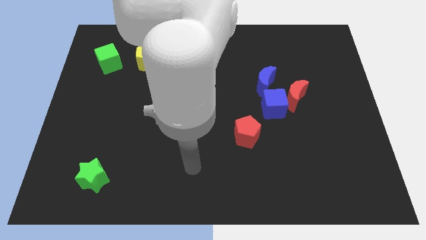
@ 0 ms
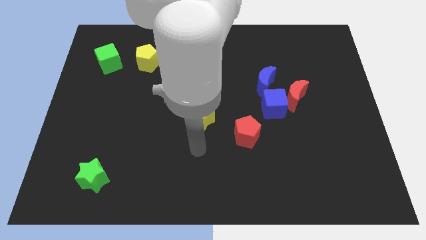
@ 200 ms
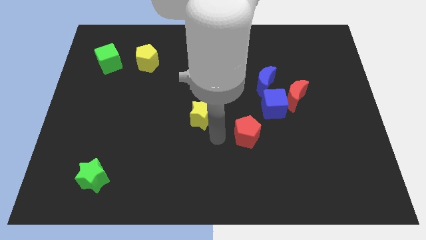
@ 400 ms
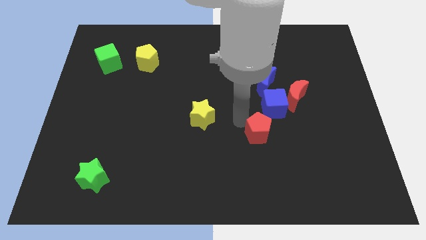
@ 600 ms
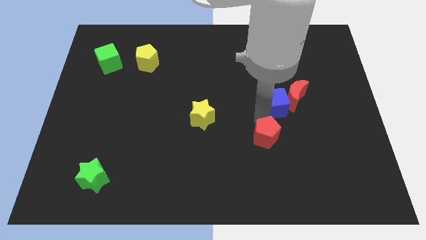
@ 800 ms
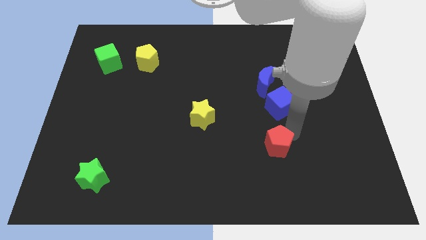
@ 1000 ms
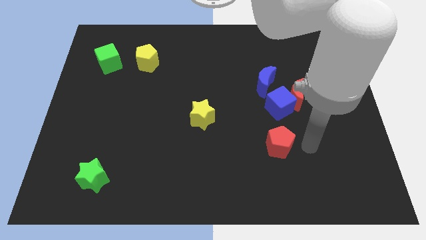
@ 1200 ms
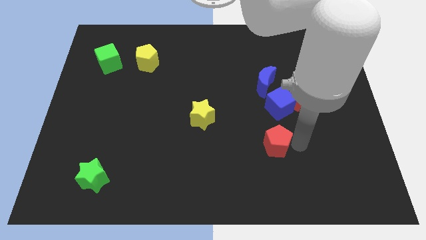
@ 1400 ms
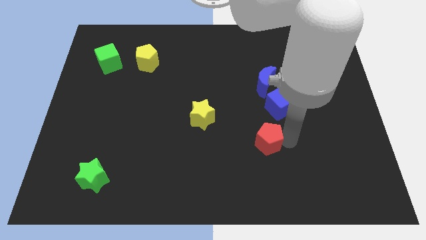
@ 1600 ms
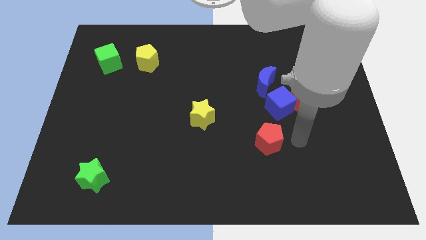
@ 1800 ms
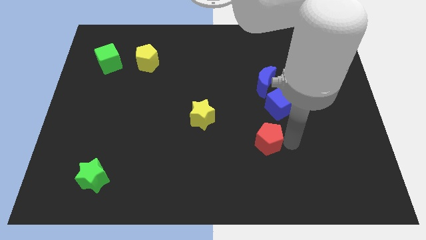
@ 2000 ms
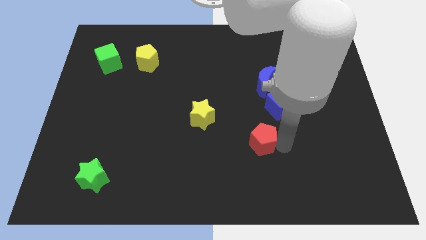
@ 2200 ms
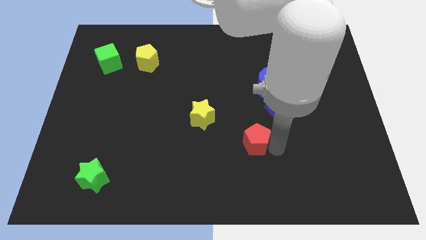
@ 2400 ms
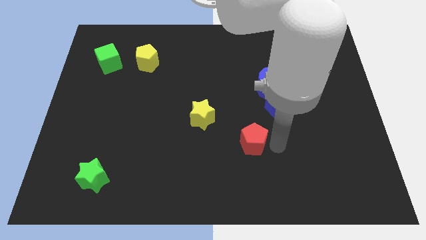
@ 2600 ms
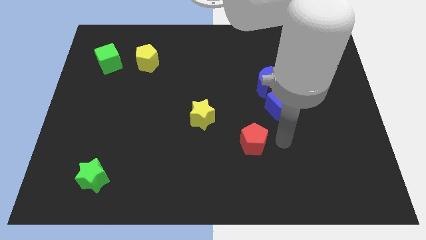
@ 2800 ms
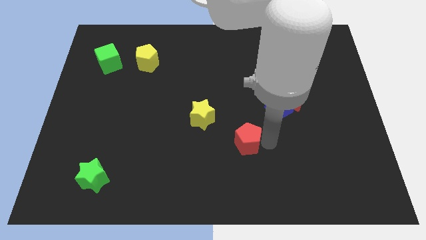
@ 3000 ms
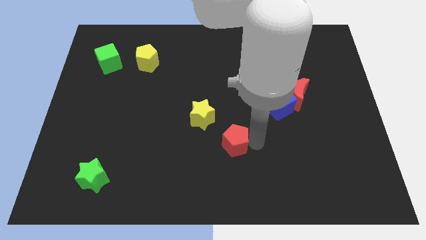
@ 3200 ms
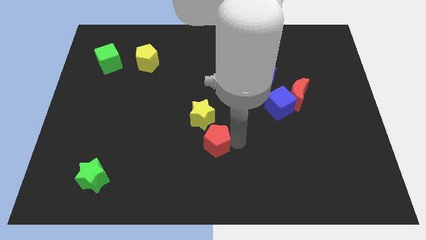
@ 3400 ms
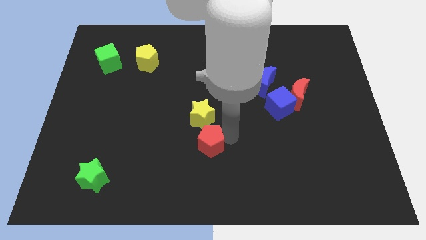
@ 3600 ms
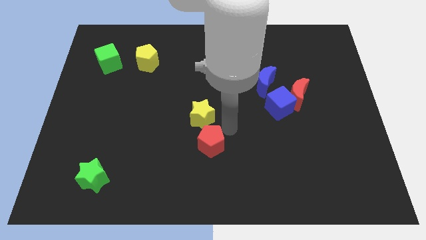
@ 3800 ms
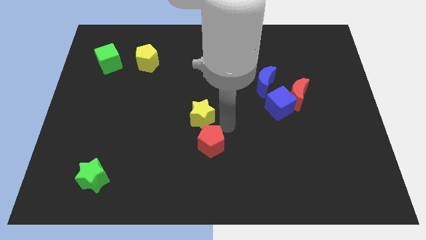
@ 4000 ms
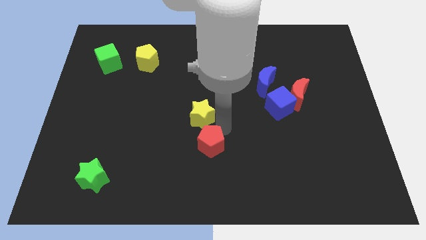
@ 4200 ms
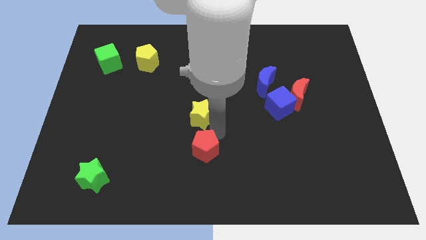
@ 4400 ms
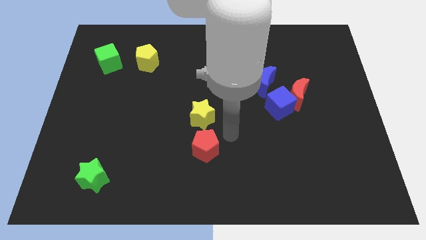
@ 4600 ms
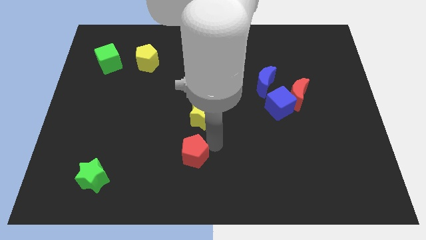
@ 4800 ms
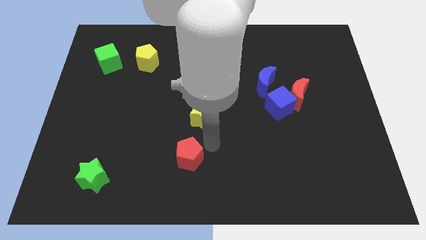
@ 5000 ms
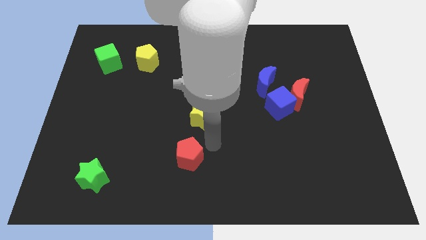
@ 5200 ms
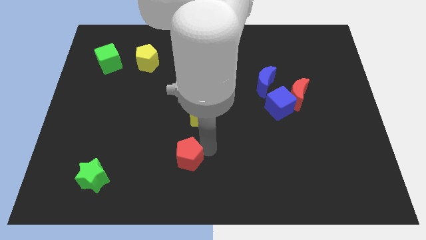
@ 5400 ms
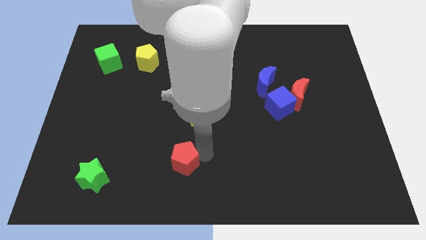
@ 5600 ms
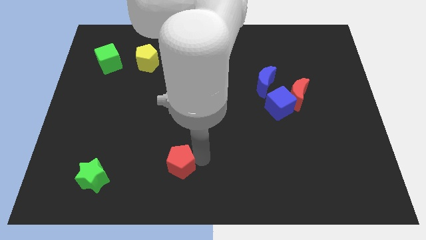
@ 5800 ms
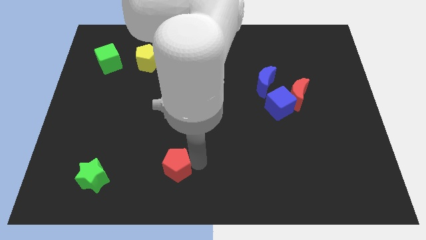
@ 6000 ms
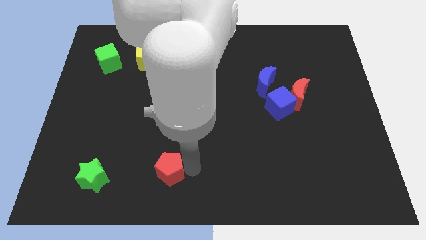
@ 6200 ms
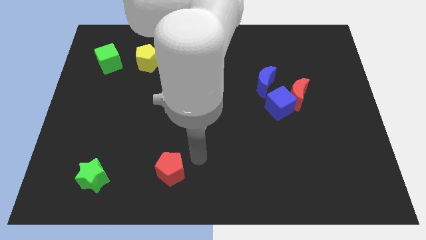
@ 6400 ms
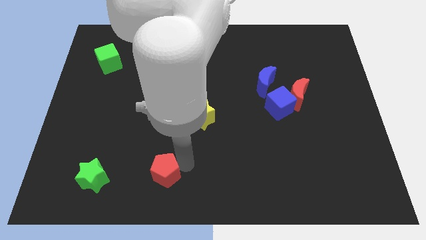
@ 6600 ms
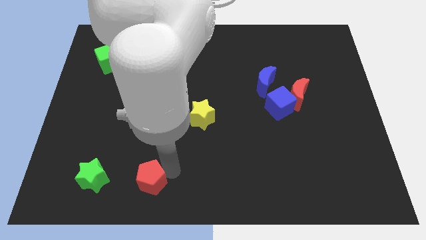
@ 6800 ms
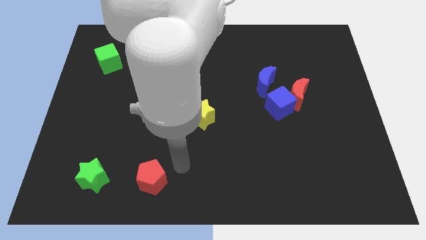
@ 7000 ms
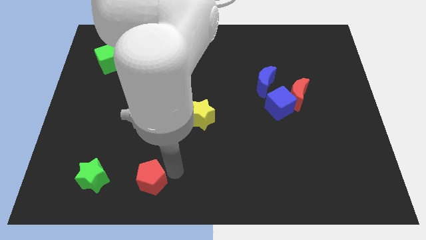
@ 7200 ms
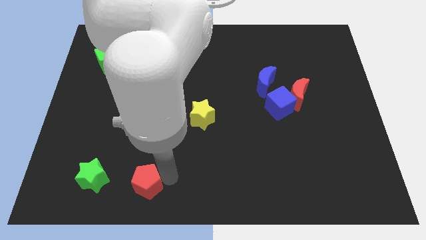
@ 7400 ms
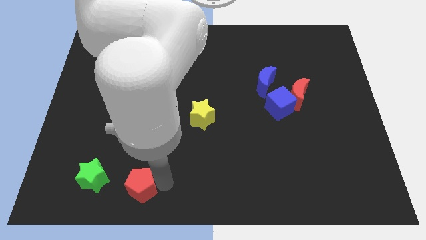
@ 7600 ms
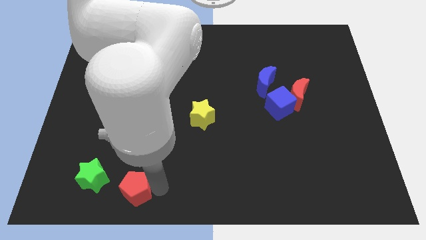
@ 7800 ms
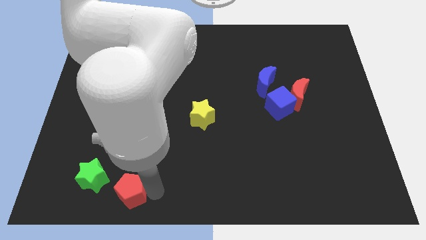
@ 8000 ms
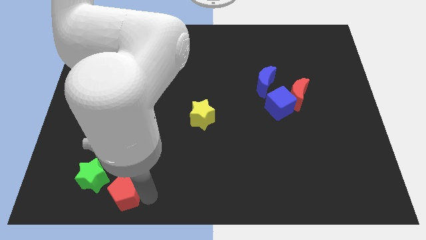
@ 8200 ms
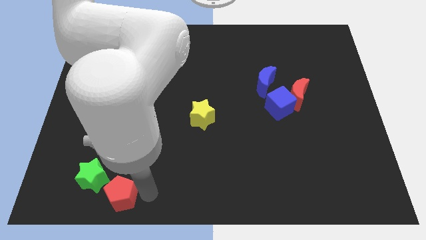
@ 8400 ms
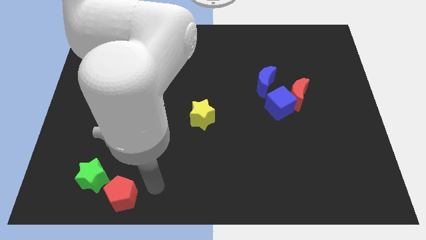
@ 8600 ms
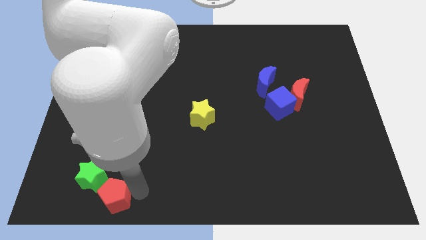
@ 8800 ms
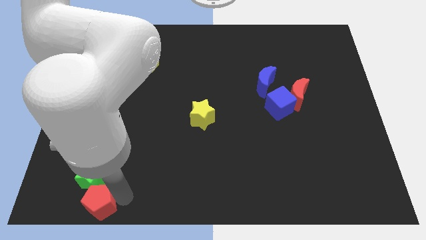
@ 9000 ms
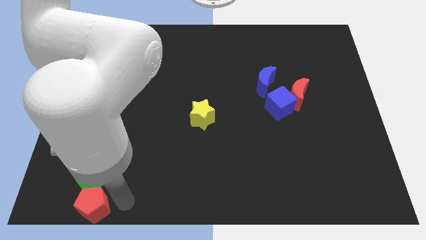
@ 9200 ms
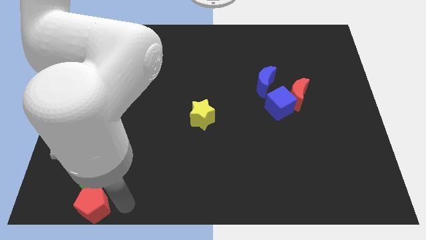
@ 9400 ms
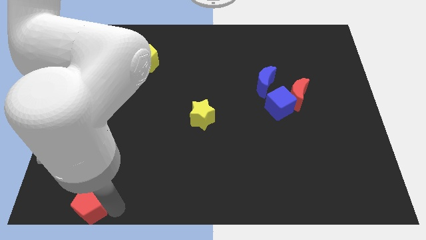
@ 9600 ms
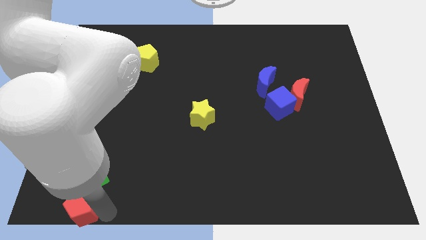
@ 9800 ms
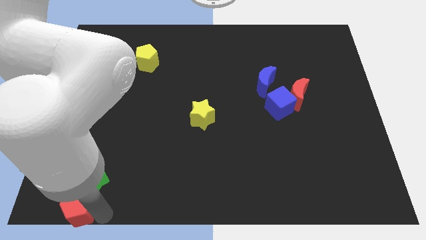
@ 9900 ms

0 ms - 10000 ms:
put the red pentagon to the bottom left of the board

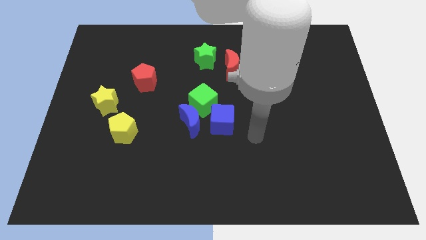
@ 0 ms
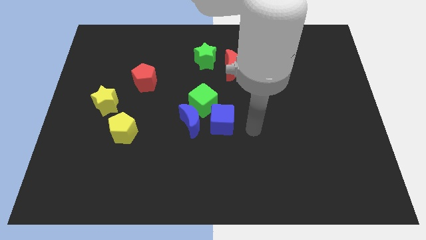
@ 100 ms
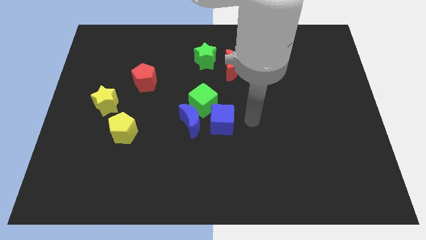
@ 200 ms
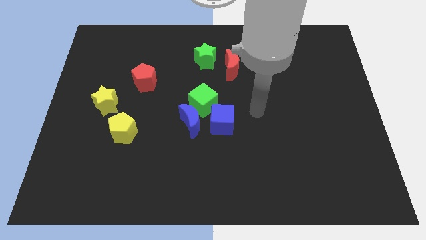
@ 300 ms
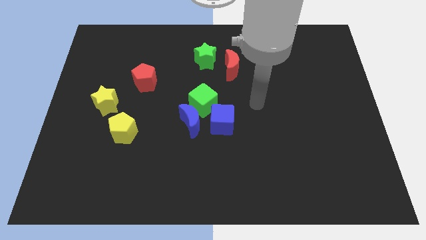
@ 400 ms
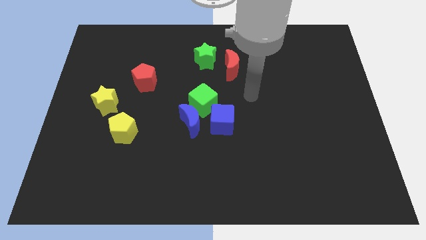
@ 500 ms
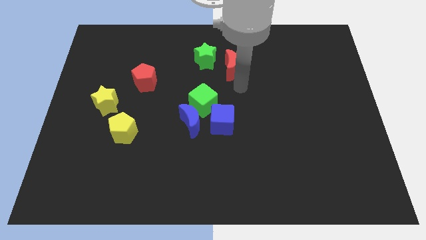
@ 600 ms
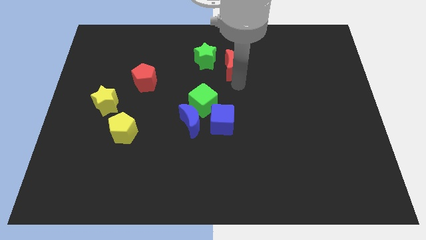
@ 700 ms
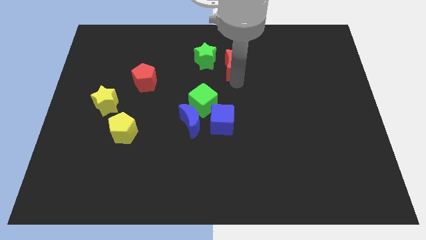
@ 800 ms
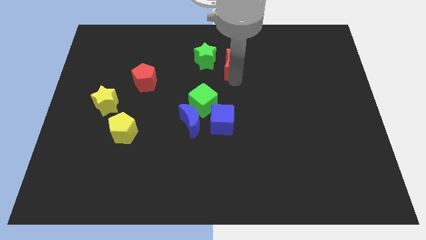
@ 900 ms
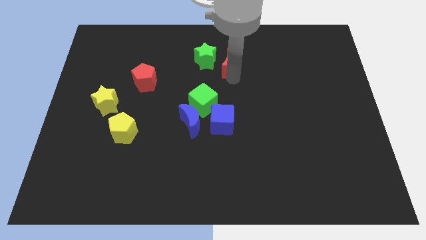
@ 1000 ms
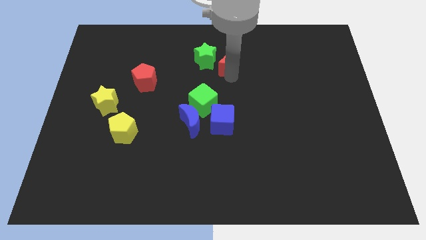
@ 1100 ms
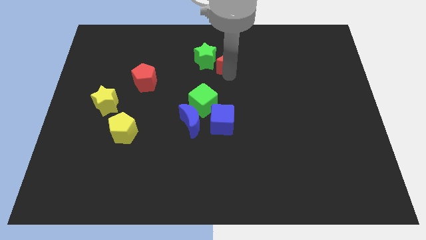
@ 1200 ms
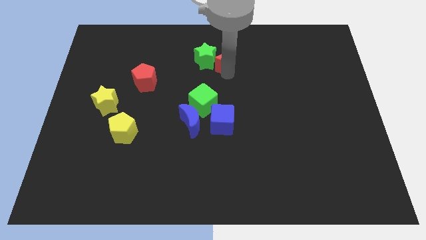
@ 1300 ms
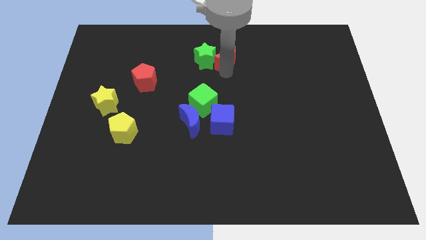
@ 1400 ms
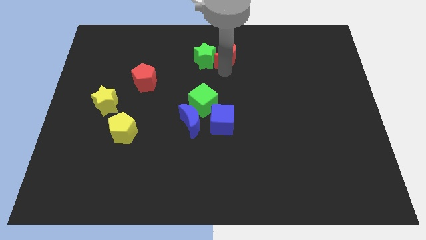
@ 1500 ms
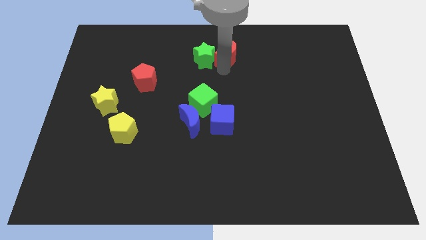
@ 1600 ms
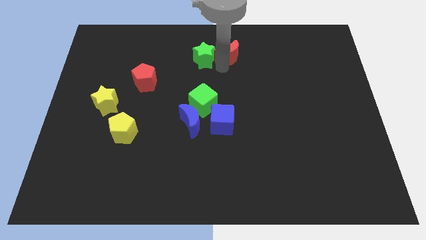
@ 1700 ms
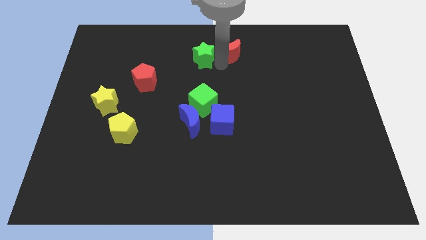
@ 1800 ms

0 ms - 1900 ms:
slide the red moon to the towards your base
